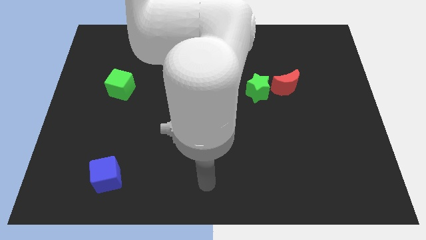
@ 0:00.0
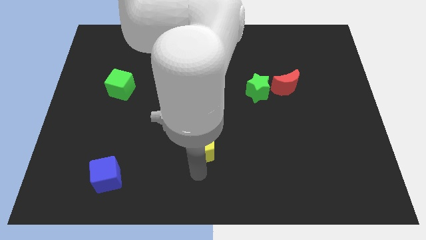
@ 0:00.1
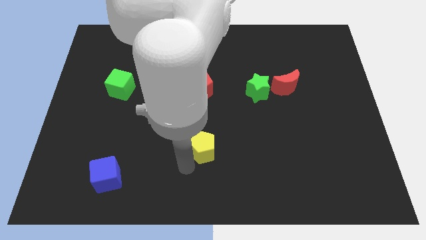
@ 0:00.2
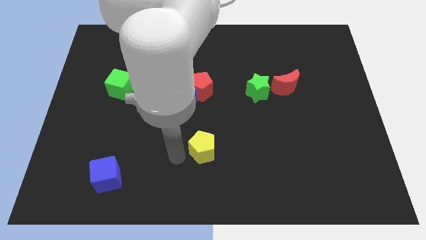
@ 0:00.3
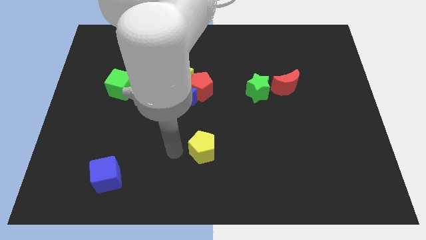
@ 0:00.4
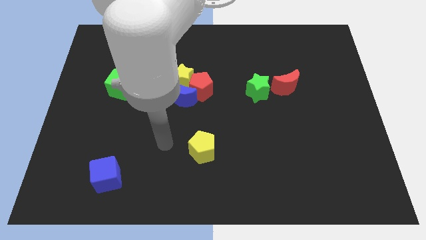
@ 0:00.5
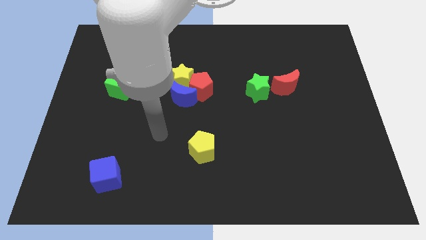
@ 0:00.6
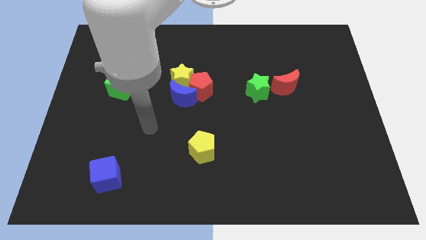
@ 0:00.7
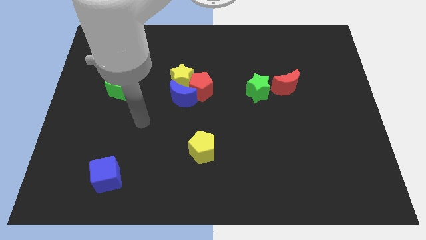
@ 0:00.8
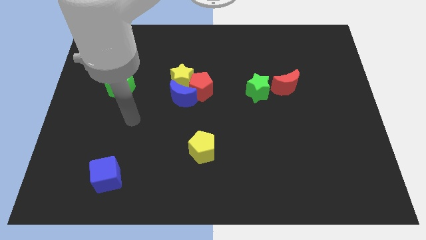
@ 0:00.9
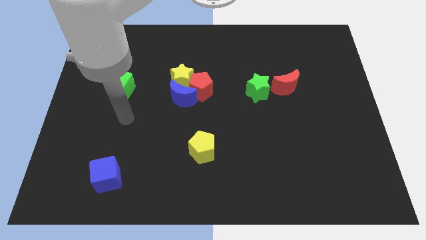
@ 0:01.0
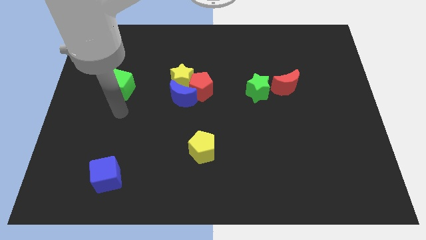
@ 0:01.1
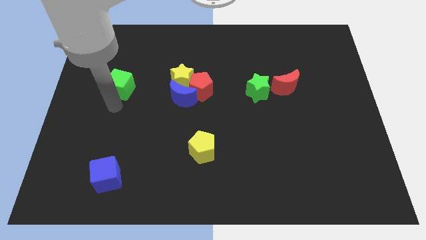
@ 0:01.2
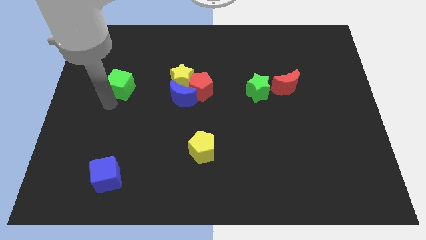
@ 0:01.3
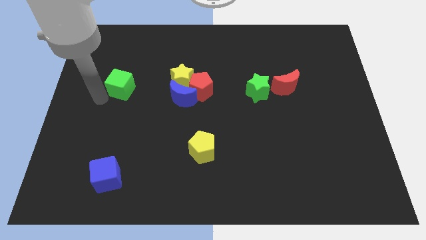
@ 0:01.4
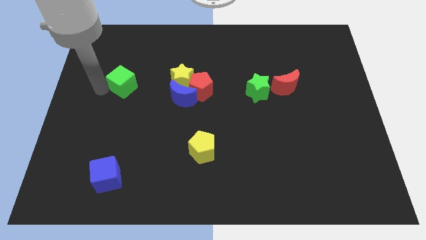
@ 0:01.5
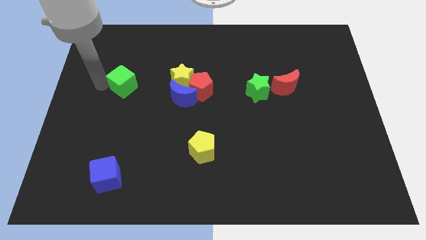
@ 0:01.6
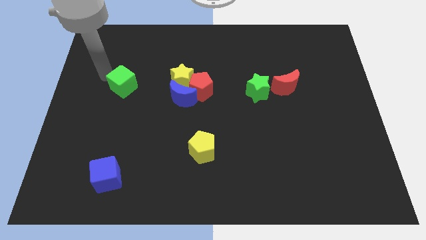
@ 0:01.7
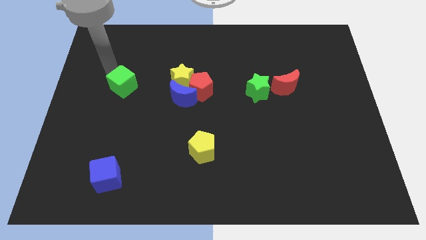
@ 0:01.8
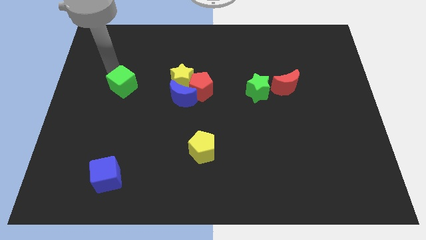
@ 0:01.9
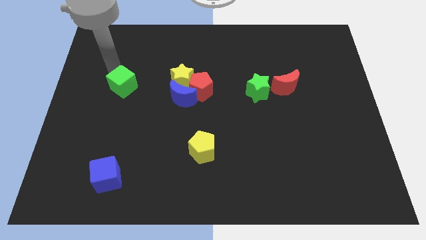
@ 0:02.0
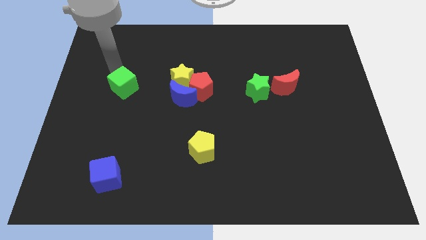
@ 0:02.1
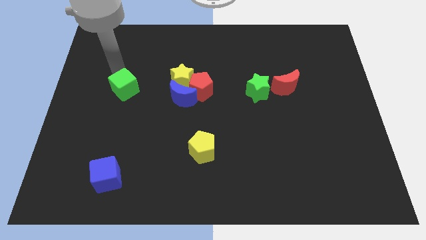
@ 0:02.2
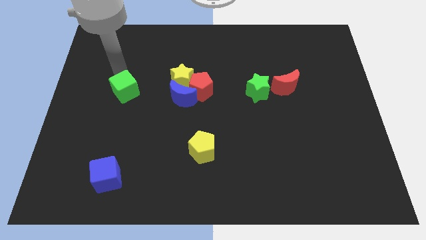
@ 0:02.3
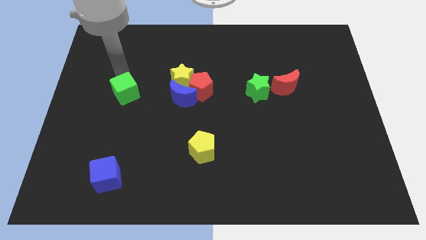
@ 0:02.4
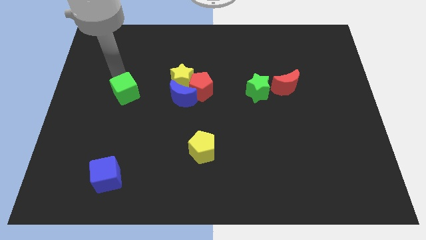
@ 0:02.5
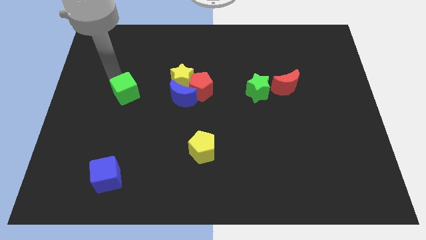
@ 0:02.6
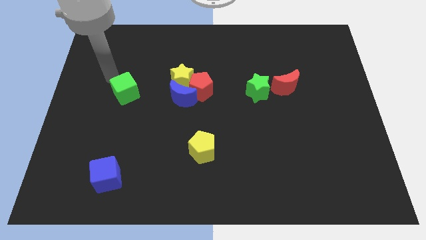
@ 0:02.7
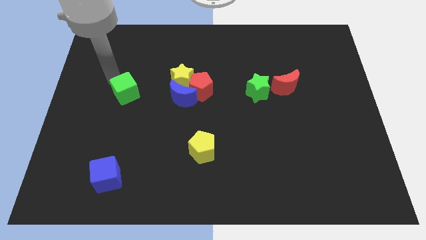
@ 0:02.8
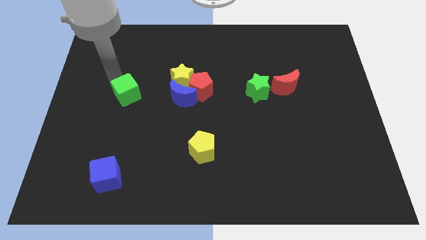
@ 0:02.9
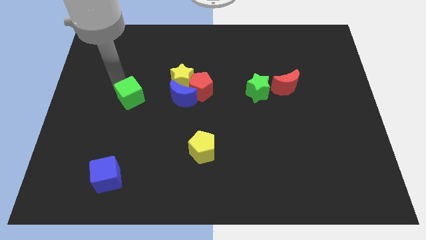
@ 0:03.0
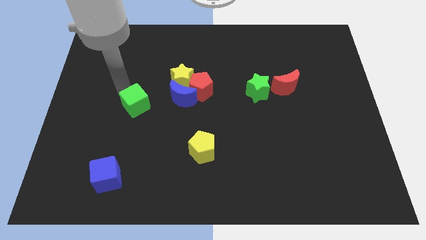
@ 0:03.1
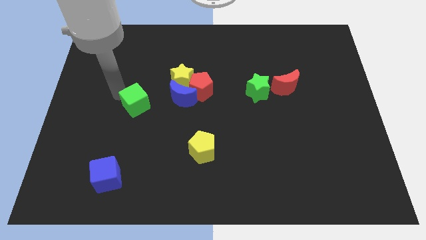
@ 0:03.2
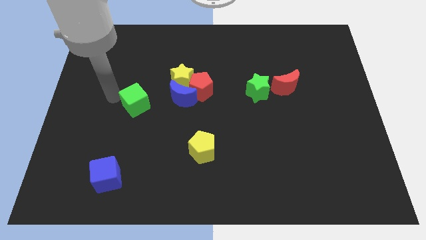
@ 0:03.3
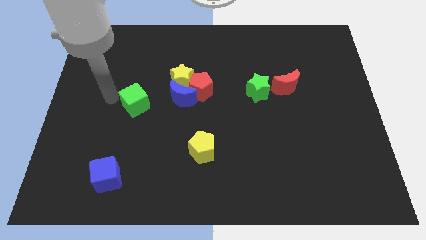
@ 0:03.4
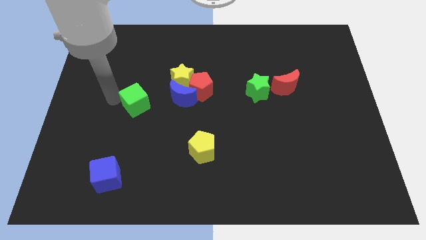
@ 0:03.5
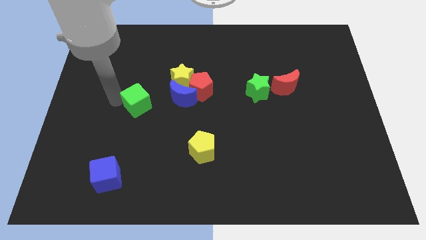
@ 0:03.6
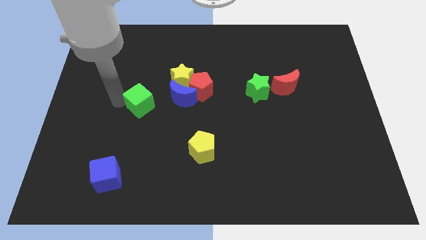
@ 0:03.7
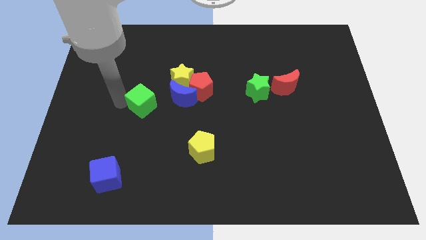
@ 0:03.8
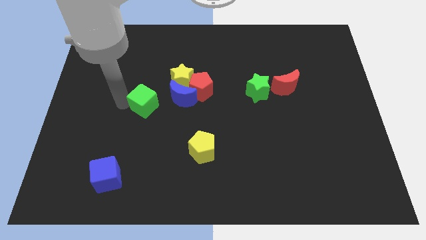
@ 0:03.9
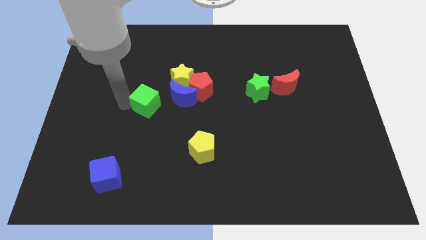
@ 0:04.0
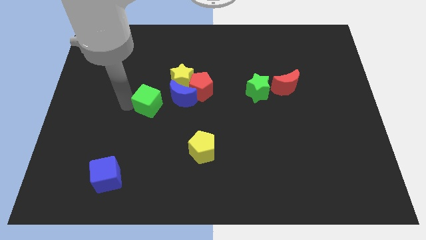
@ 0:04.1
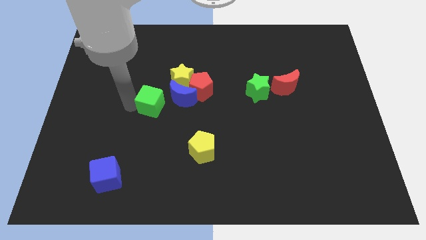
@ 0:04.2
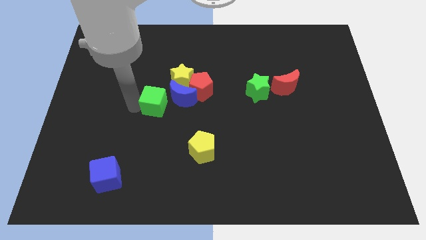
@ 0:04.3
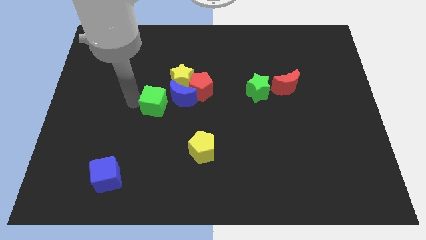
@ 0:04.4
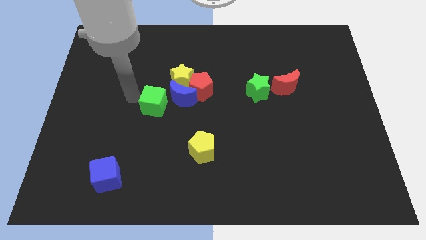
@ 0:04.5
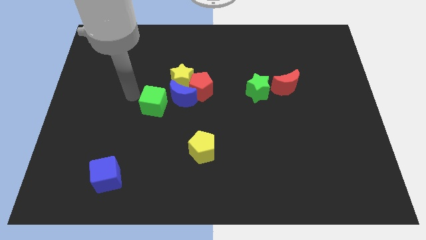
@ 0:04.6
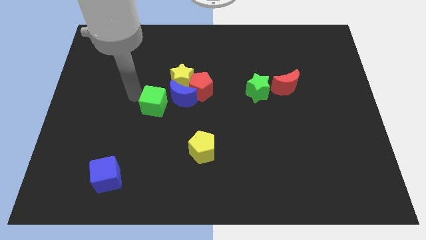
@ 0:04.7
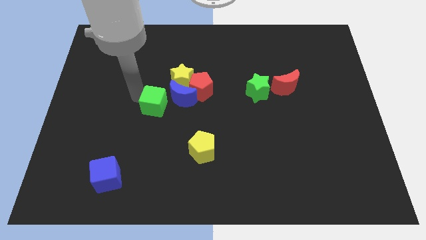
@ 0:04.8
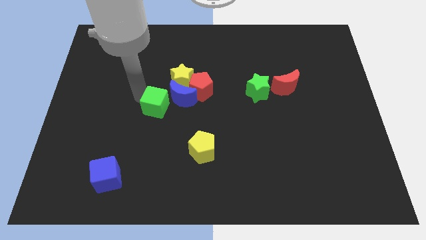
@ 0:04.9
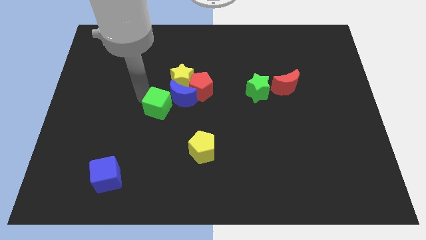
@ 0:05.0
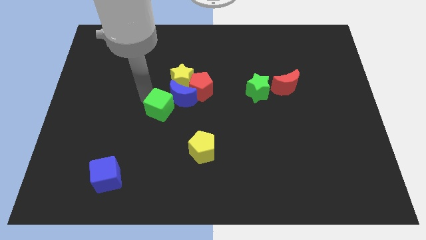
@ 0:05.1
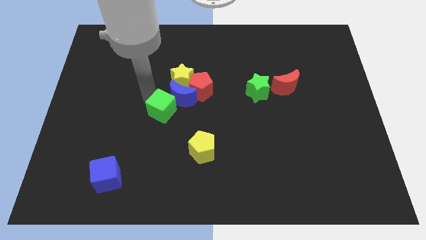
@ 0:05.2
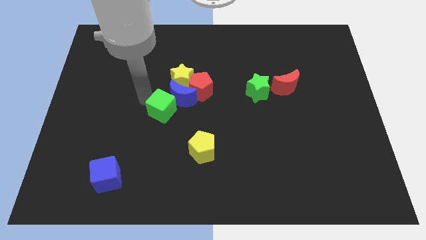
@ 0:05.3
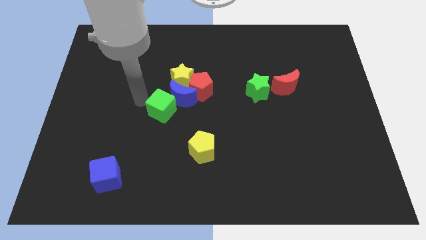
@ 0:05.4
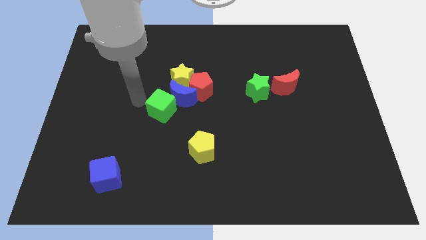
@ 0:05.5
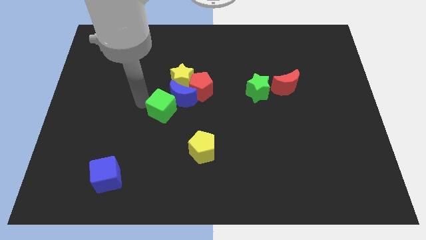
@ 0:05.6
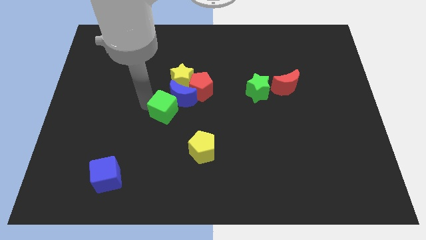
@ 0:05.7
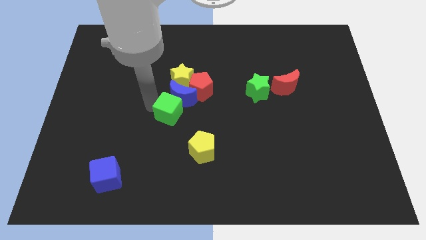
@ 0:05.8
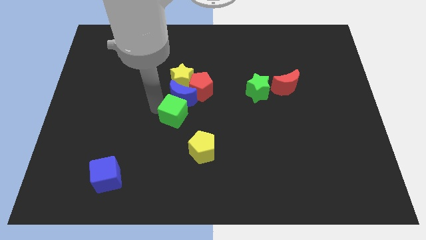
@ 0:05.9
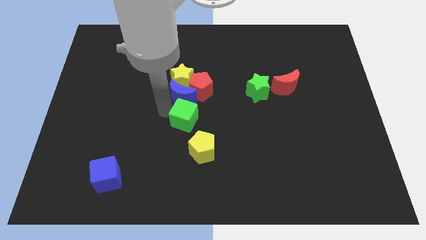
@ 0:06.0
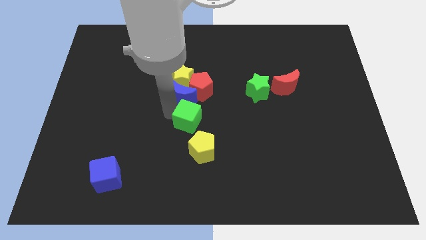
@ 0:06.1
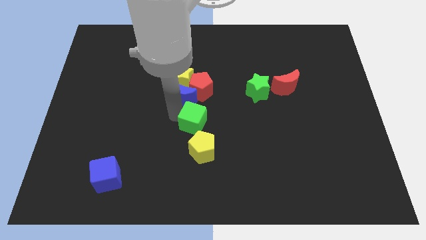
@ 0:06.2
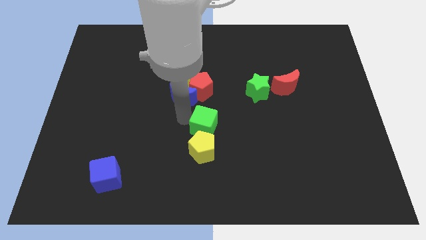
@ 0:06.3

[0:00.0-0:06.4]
push the green cube diagonally up and to the right of the yellow pentagon

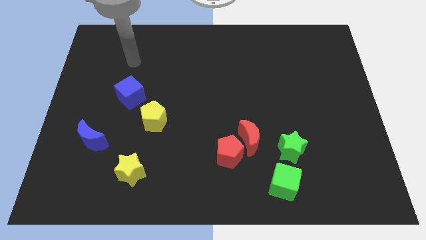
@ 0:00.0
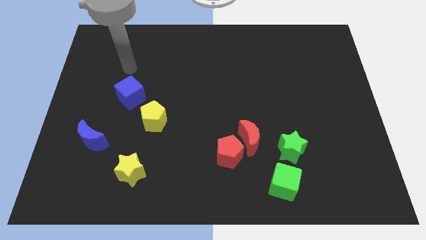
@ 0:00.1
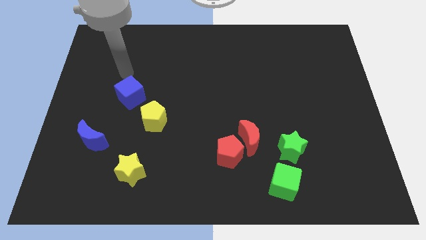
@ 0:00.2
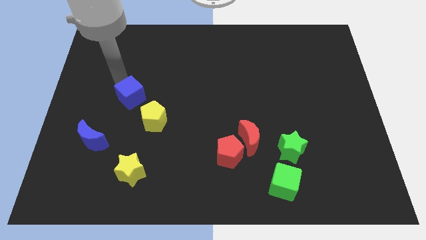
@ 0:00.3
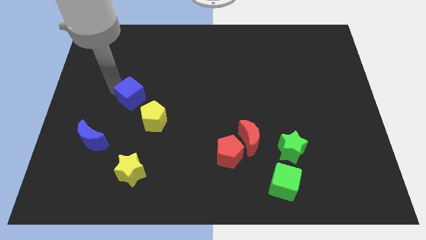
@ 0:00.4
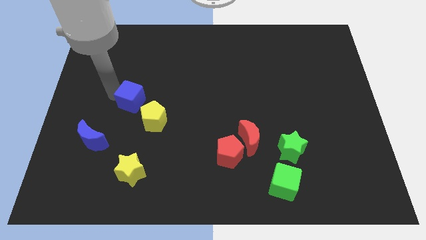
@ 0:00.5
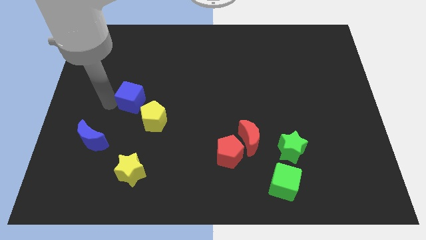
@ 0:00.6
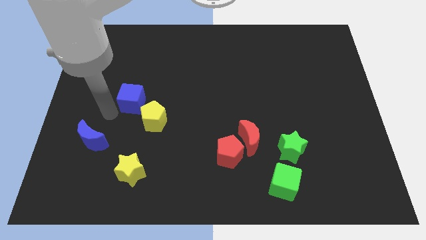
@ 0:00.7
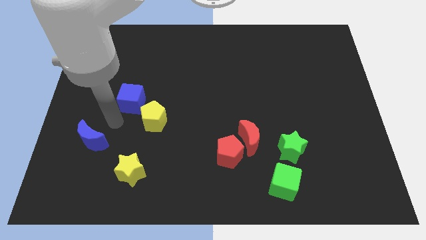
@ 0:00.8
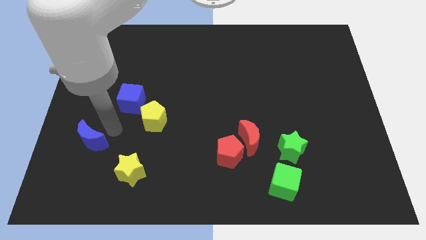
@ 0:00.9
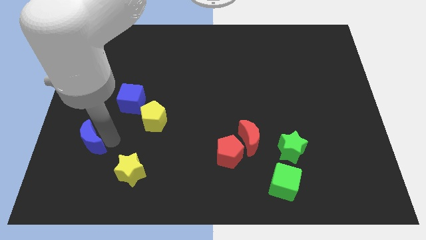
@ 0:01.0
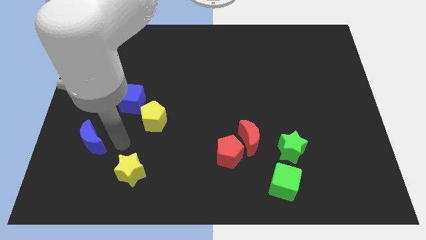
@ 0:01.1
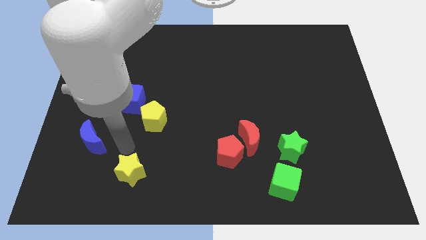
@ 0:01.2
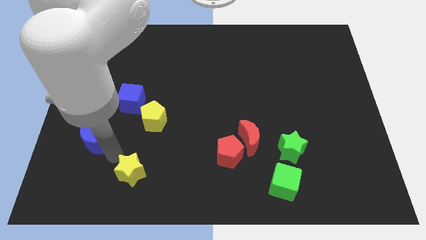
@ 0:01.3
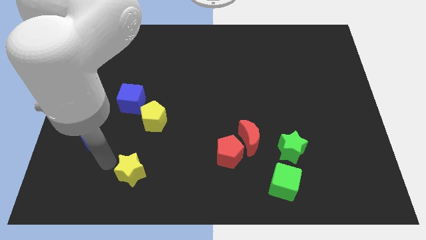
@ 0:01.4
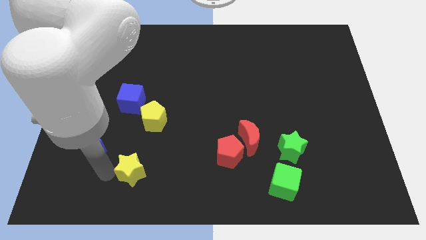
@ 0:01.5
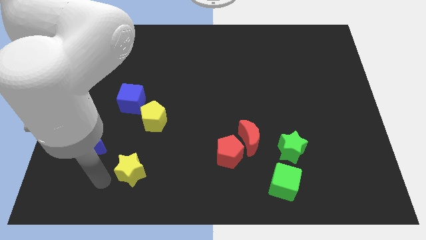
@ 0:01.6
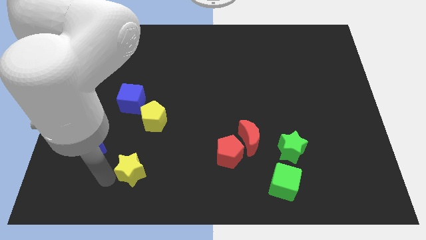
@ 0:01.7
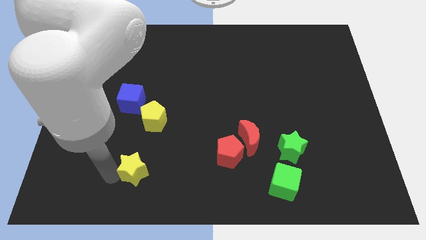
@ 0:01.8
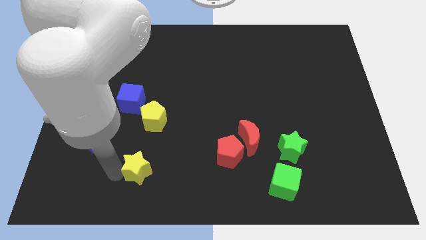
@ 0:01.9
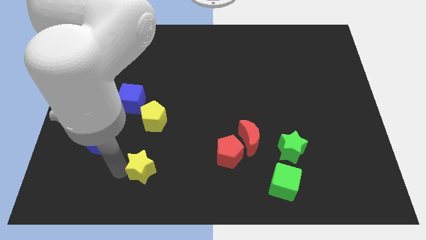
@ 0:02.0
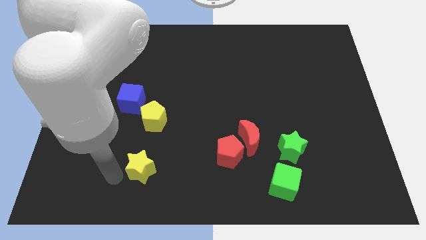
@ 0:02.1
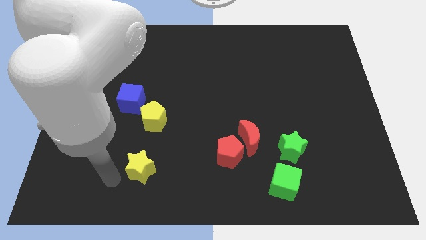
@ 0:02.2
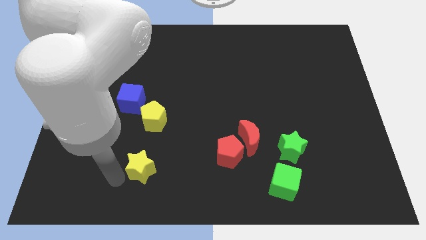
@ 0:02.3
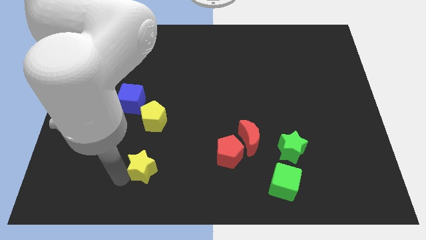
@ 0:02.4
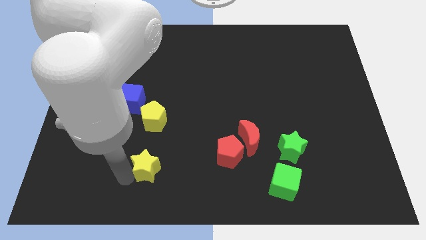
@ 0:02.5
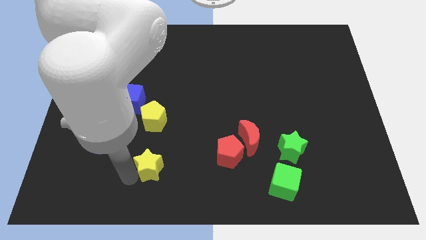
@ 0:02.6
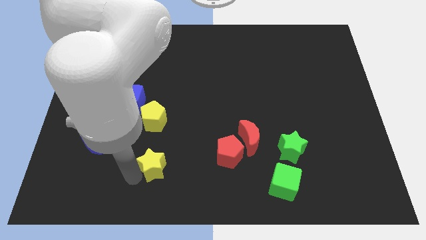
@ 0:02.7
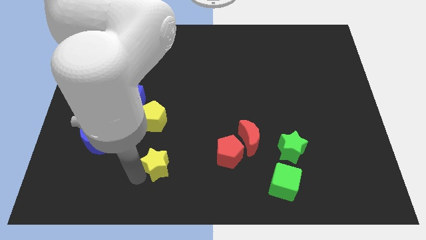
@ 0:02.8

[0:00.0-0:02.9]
put the yellow star left of the red pentagon
